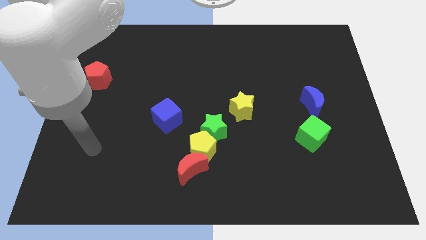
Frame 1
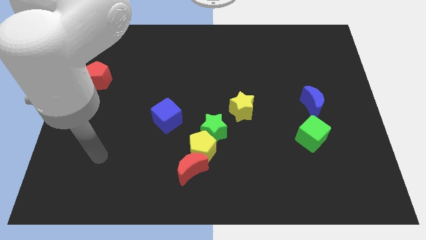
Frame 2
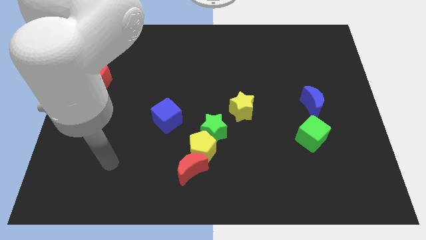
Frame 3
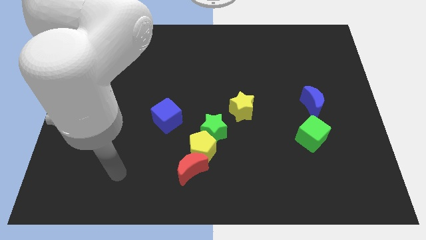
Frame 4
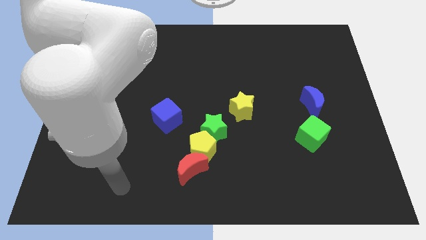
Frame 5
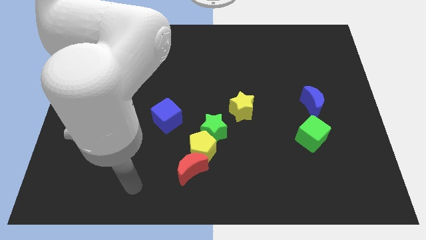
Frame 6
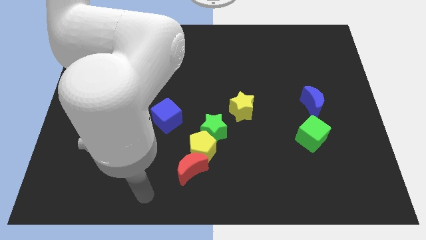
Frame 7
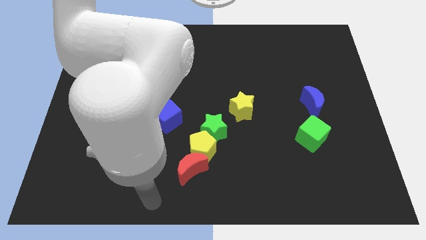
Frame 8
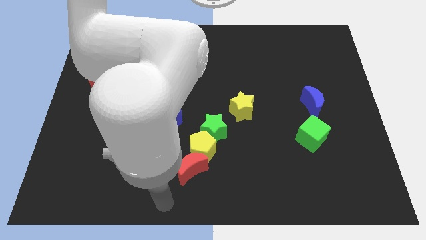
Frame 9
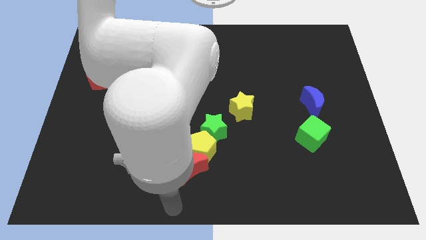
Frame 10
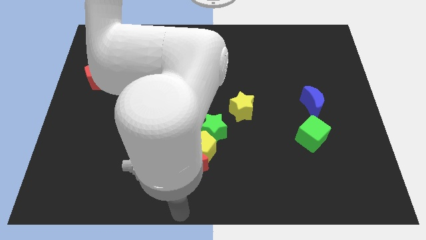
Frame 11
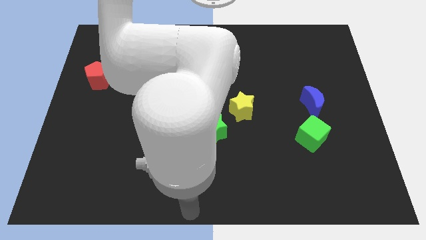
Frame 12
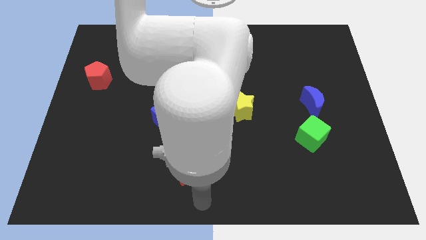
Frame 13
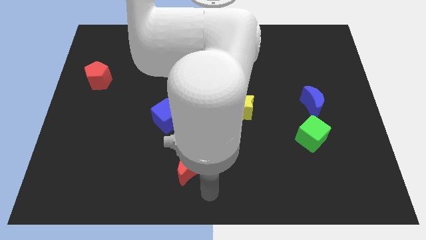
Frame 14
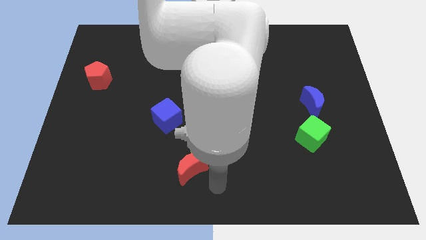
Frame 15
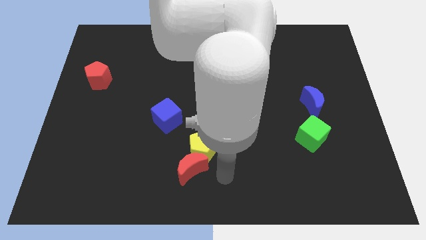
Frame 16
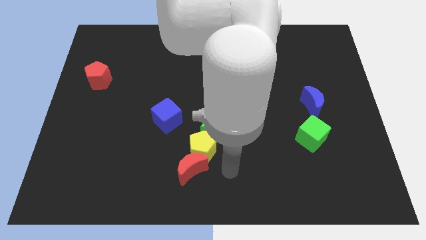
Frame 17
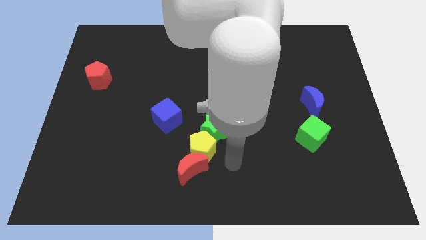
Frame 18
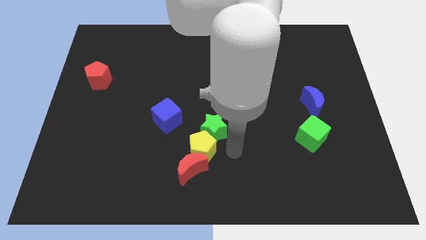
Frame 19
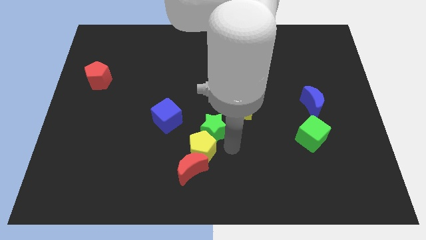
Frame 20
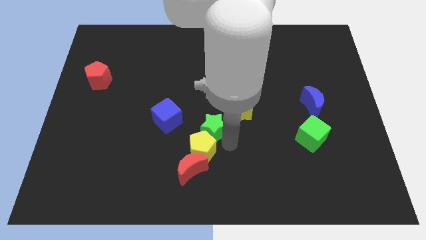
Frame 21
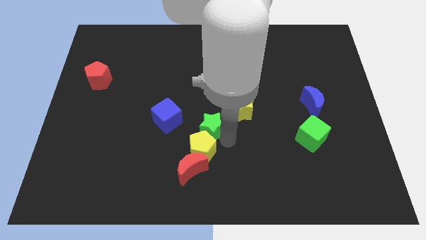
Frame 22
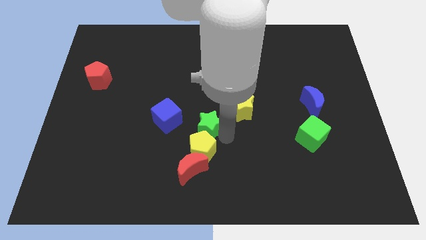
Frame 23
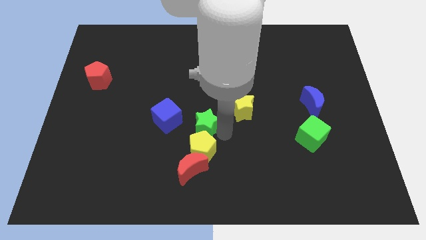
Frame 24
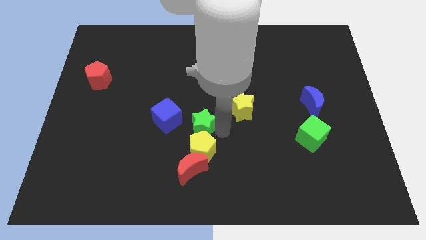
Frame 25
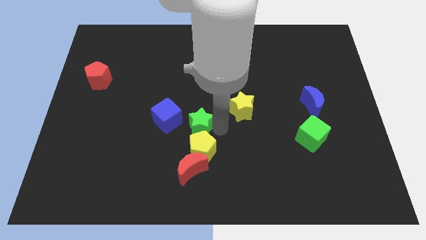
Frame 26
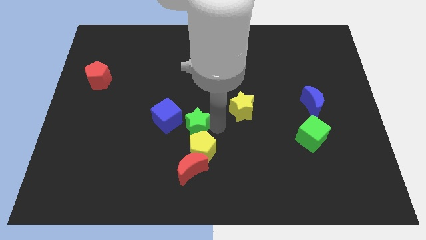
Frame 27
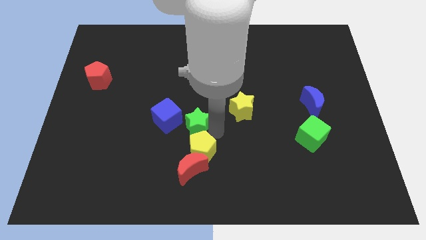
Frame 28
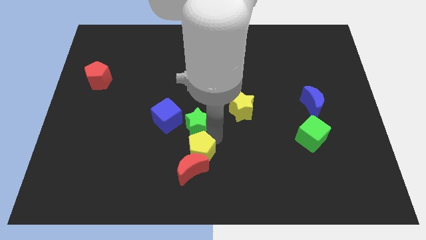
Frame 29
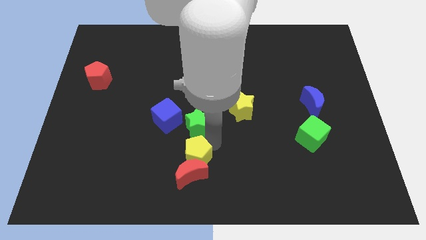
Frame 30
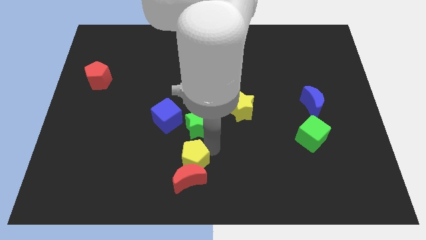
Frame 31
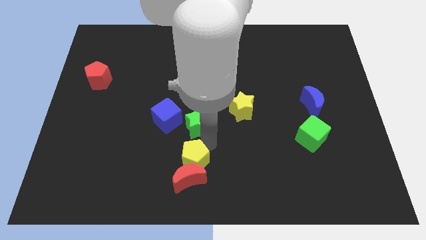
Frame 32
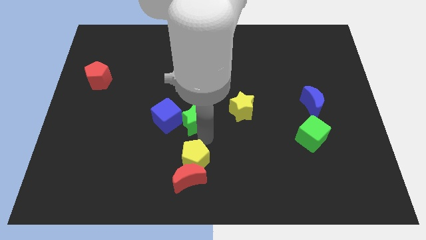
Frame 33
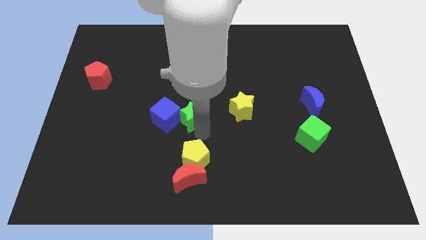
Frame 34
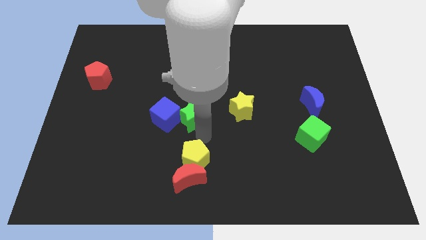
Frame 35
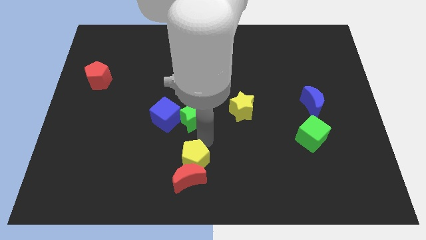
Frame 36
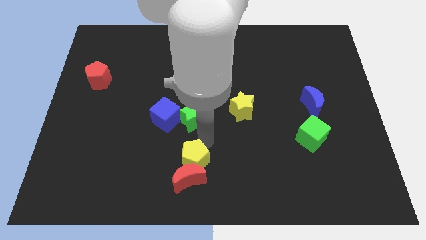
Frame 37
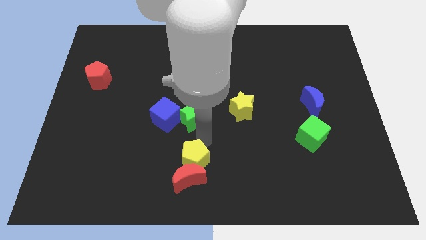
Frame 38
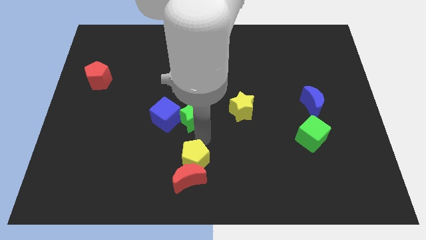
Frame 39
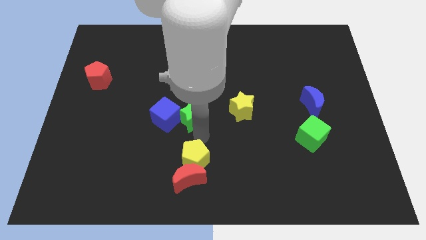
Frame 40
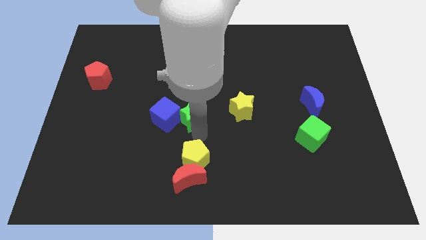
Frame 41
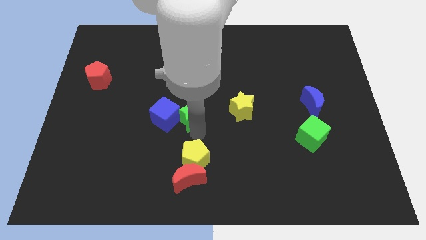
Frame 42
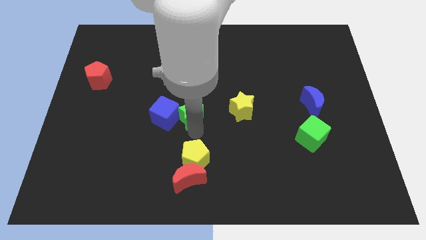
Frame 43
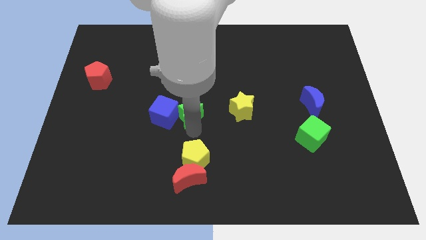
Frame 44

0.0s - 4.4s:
push the green star a little bit diagonally upwards and left

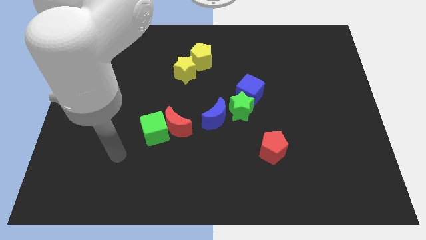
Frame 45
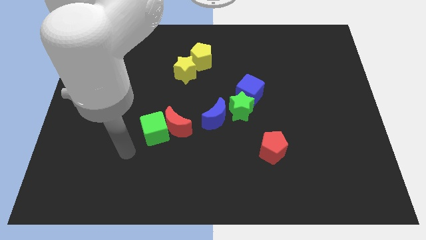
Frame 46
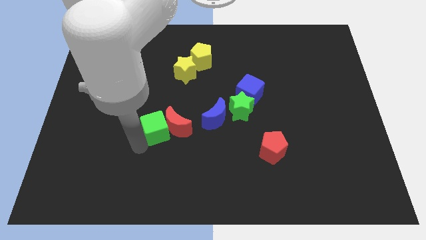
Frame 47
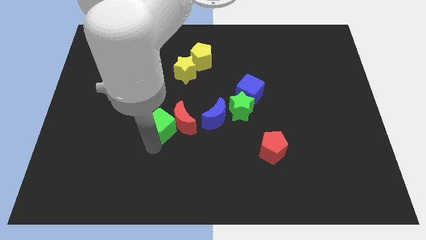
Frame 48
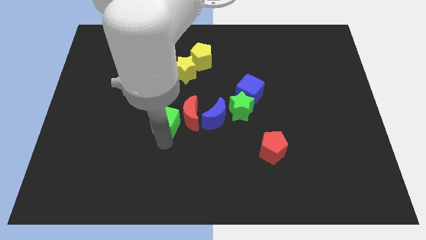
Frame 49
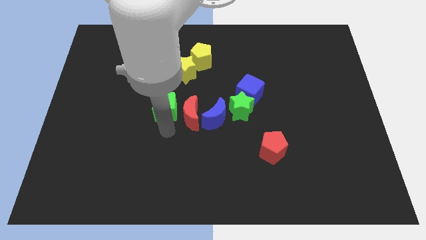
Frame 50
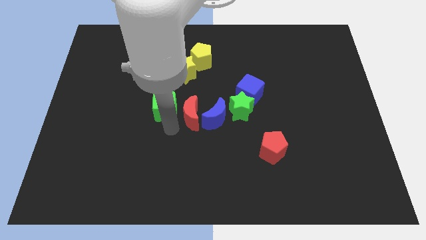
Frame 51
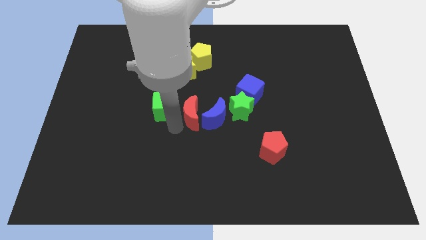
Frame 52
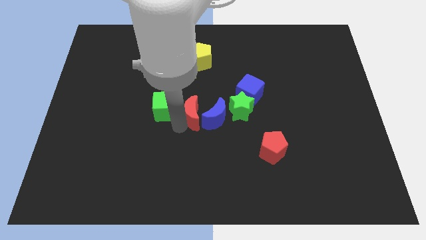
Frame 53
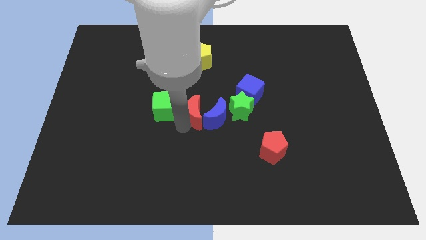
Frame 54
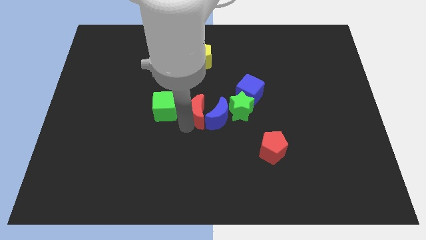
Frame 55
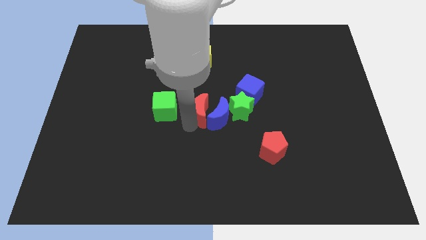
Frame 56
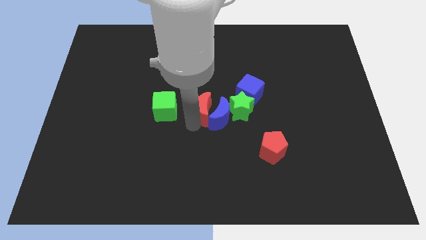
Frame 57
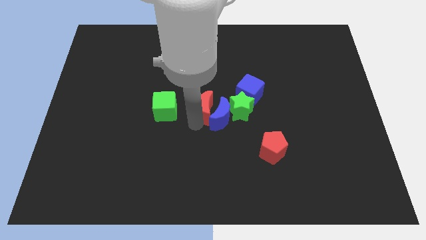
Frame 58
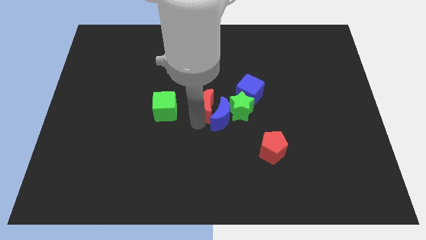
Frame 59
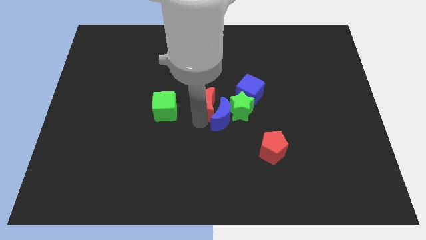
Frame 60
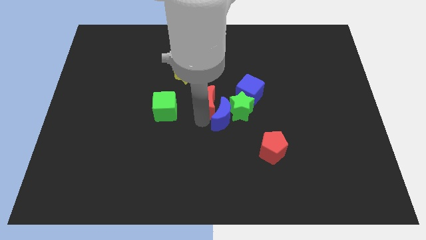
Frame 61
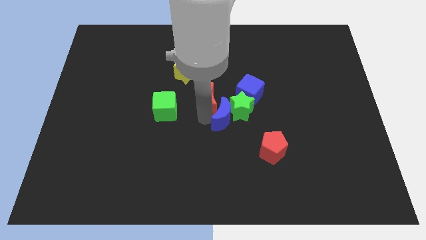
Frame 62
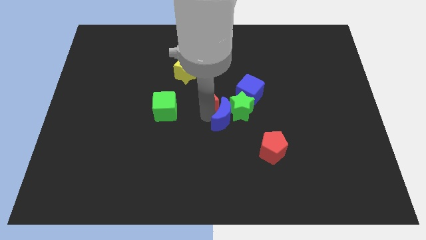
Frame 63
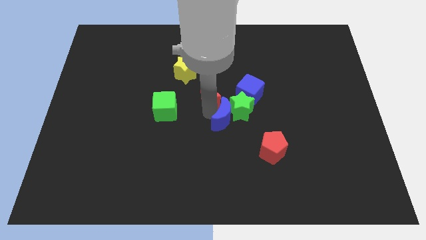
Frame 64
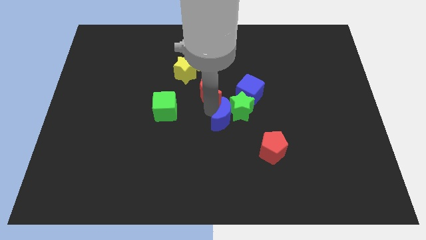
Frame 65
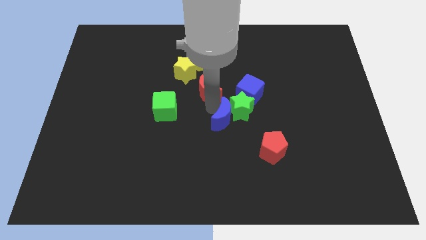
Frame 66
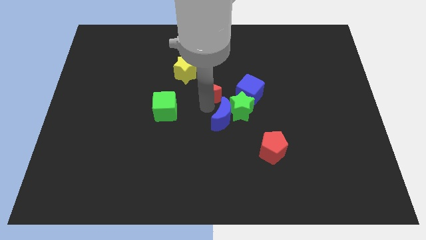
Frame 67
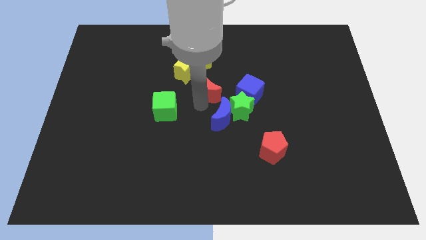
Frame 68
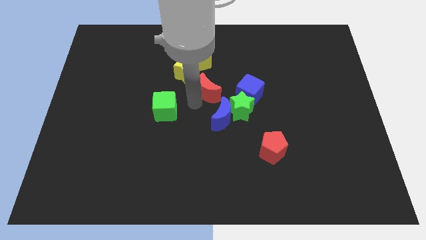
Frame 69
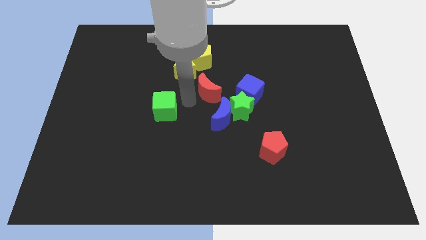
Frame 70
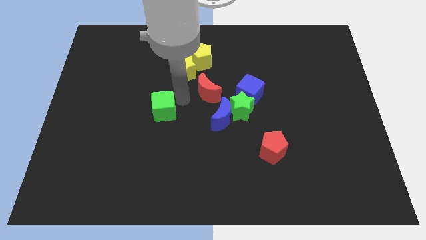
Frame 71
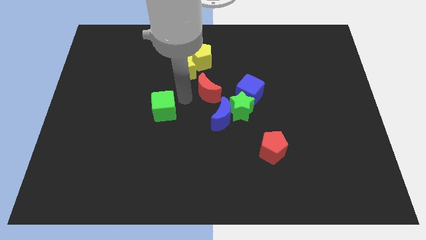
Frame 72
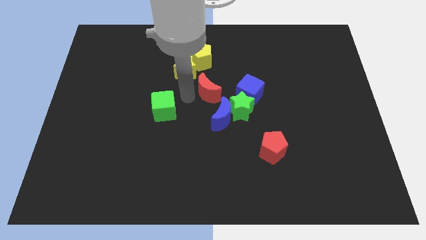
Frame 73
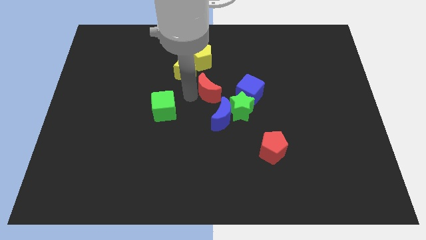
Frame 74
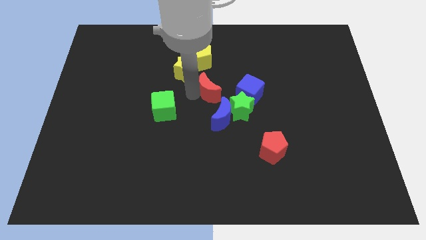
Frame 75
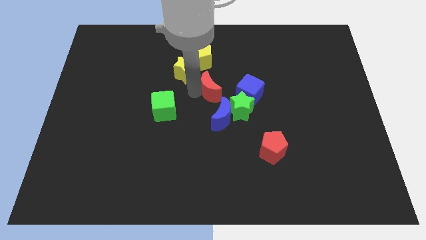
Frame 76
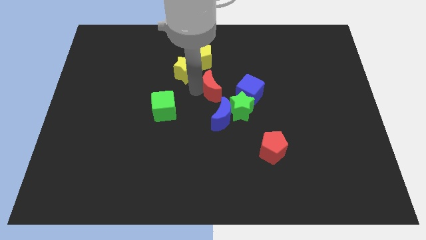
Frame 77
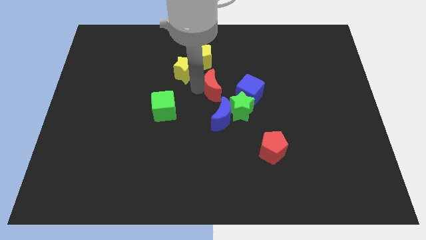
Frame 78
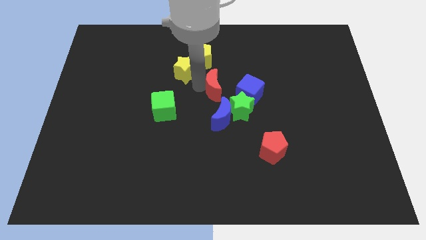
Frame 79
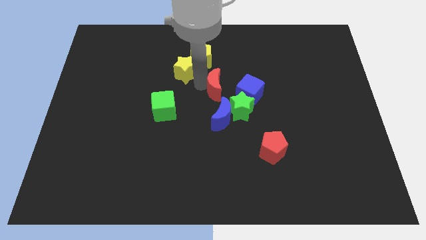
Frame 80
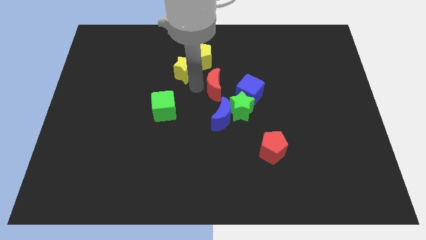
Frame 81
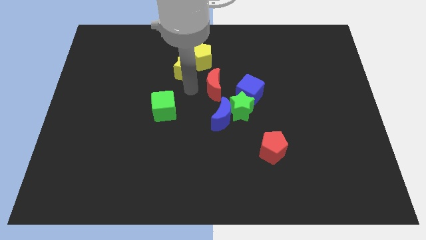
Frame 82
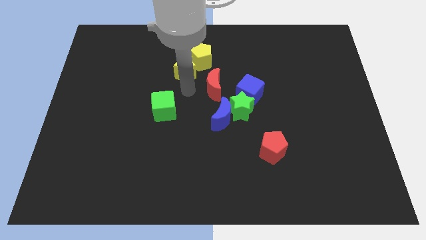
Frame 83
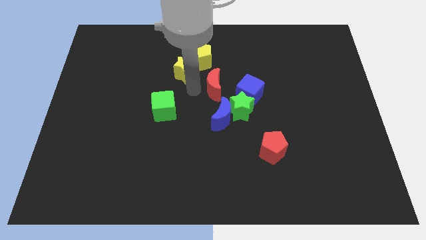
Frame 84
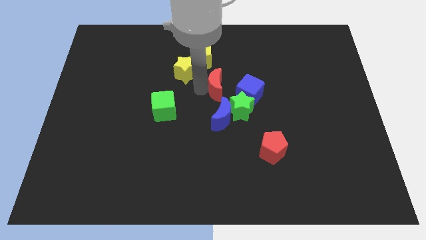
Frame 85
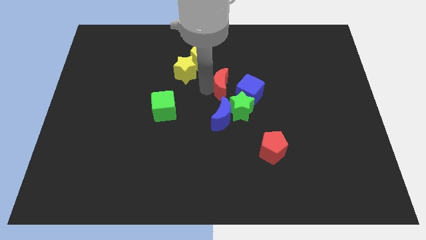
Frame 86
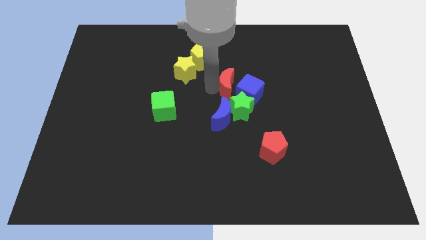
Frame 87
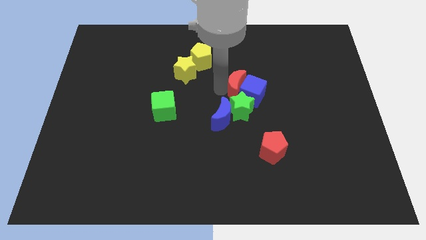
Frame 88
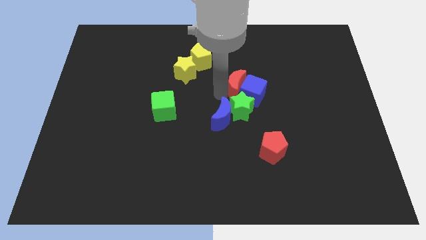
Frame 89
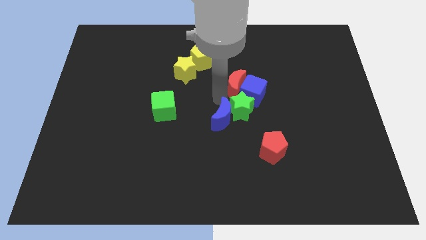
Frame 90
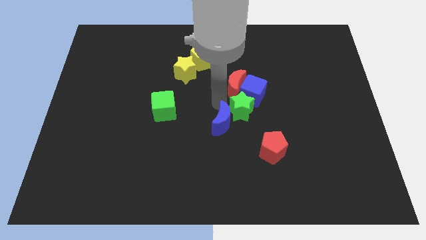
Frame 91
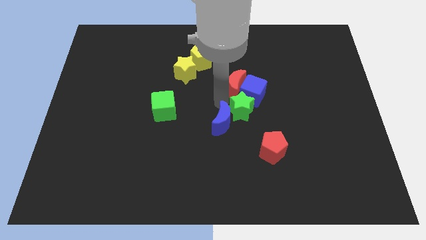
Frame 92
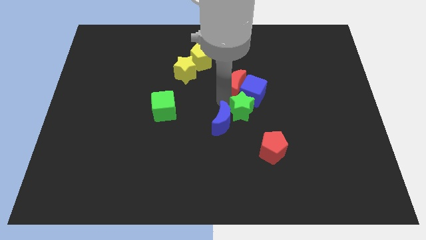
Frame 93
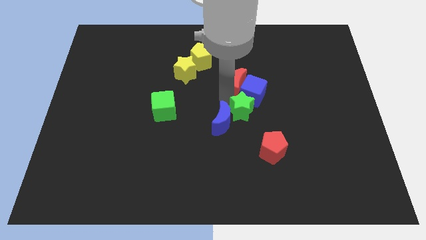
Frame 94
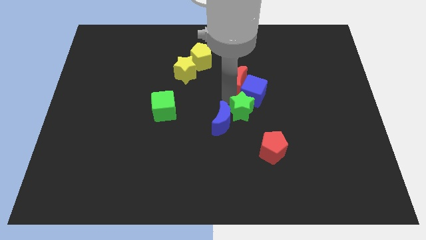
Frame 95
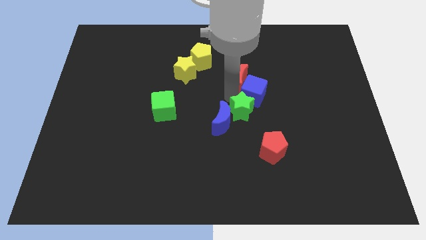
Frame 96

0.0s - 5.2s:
slide the red moon upwards and right diagonally
